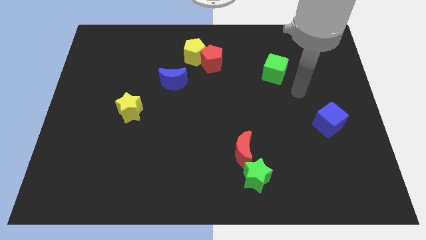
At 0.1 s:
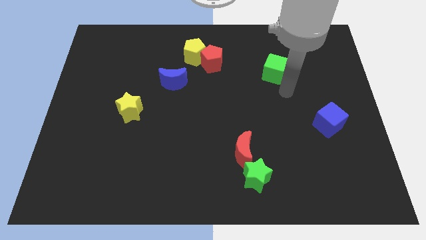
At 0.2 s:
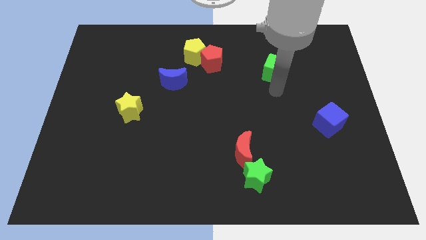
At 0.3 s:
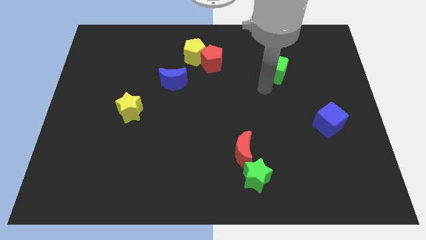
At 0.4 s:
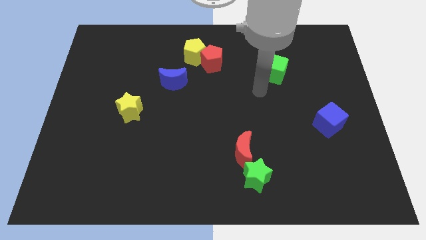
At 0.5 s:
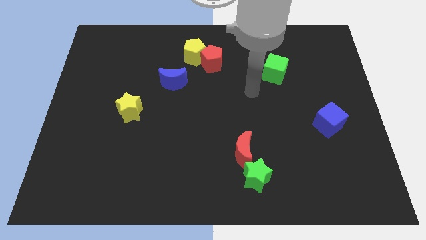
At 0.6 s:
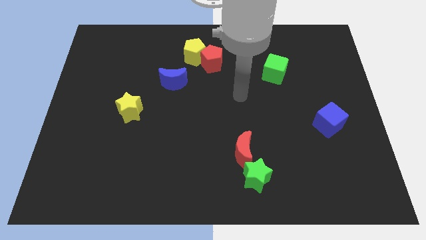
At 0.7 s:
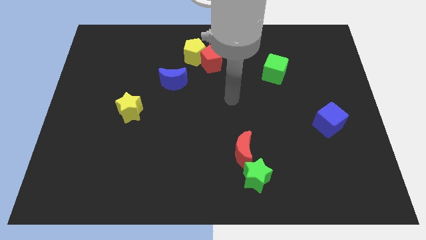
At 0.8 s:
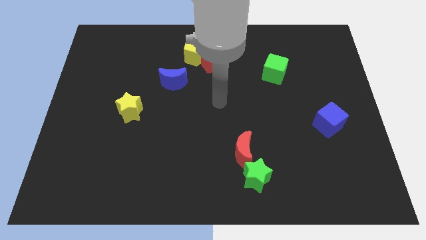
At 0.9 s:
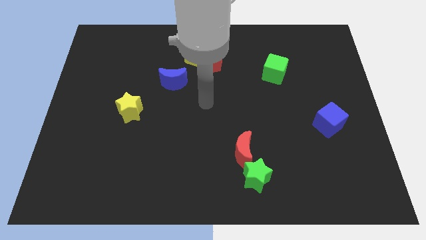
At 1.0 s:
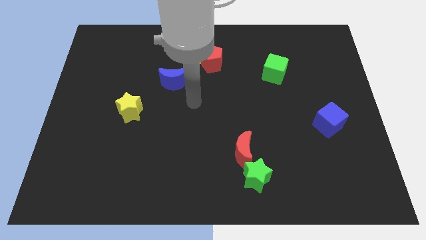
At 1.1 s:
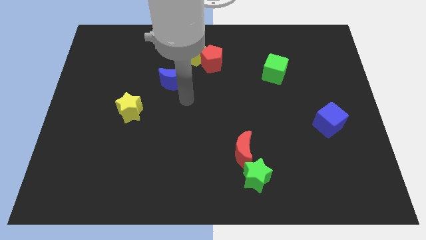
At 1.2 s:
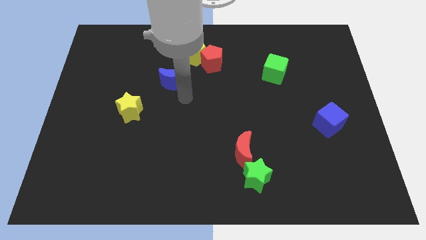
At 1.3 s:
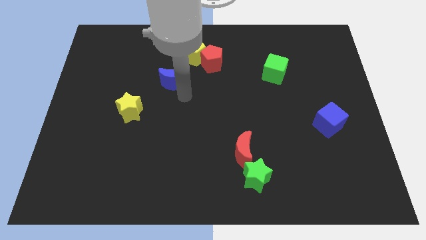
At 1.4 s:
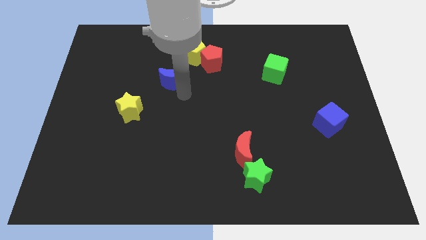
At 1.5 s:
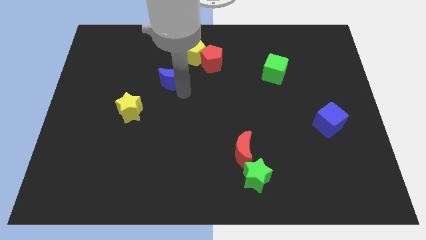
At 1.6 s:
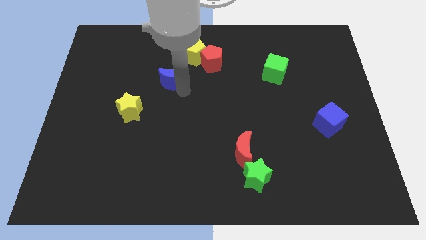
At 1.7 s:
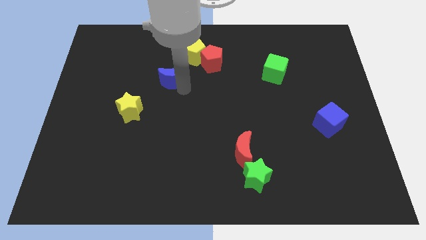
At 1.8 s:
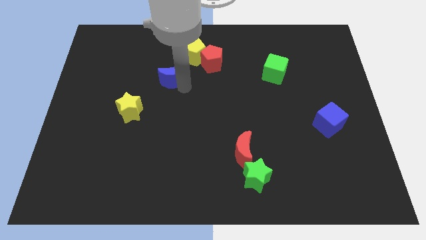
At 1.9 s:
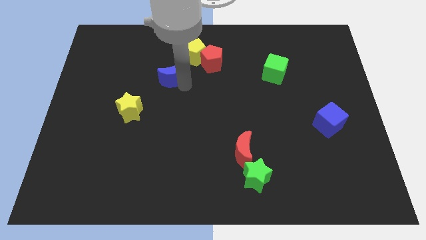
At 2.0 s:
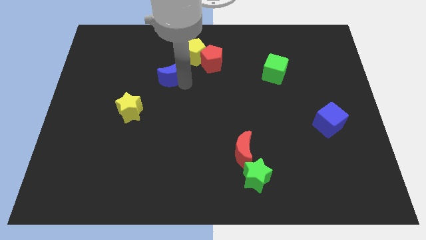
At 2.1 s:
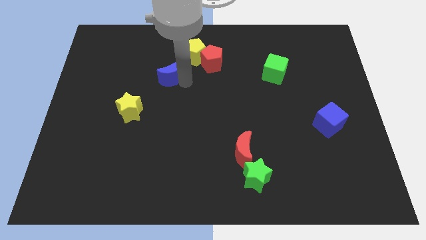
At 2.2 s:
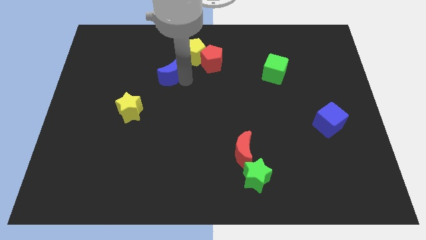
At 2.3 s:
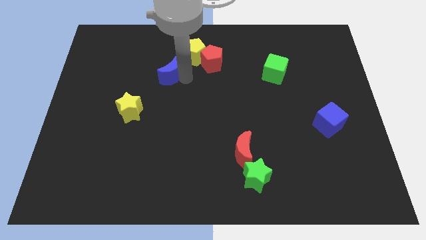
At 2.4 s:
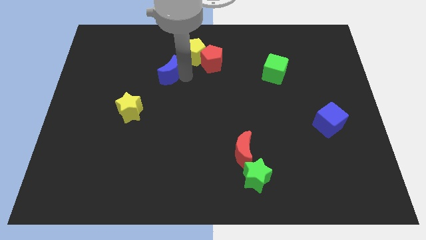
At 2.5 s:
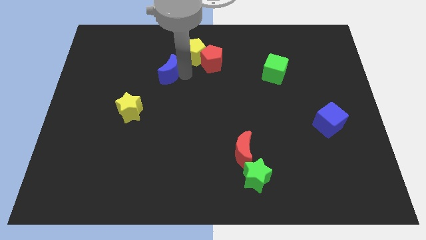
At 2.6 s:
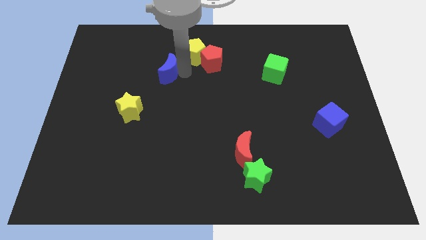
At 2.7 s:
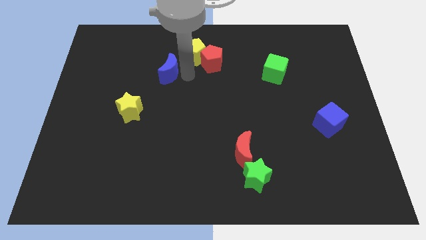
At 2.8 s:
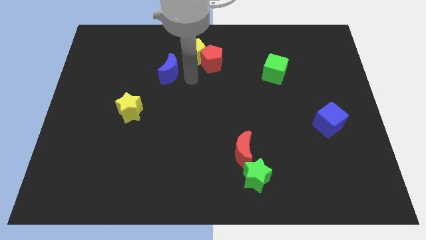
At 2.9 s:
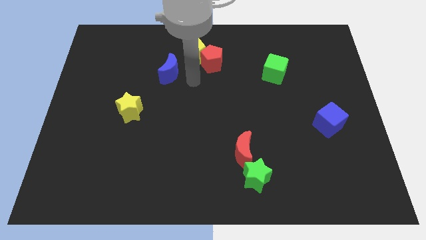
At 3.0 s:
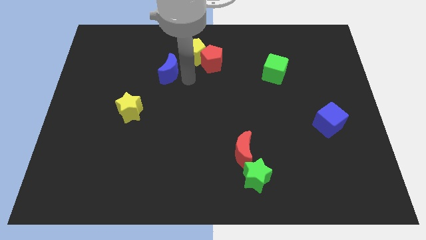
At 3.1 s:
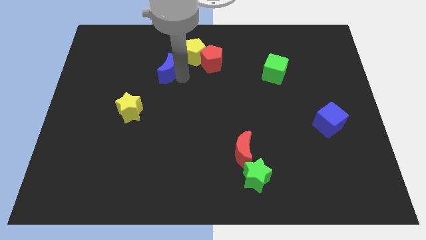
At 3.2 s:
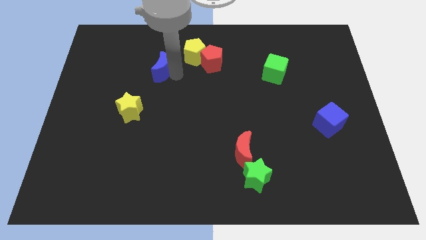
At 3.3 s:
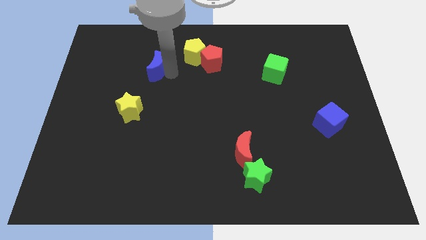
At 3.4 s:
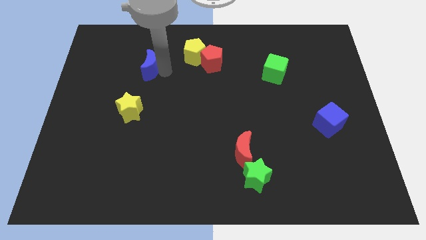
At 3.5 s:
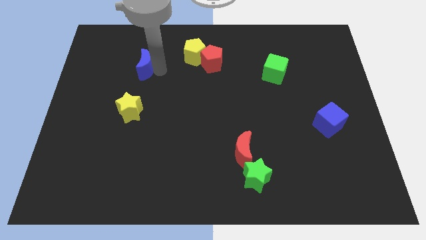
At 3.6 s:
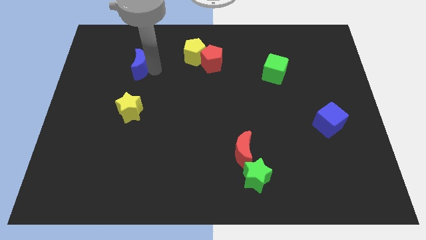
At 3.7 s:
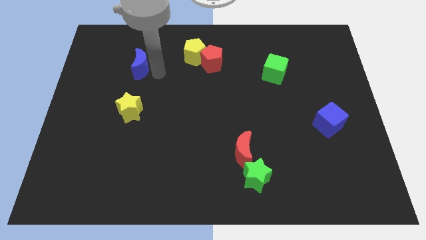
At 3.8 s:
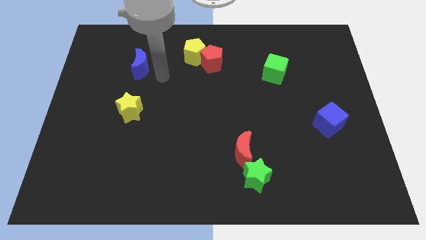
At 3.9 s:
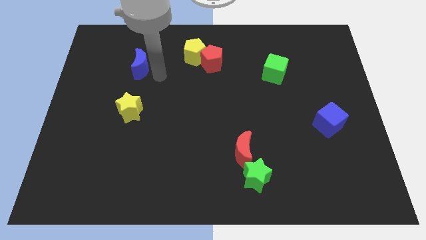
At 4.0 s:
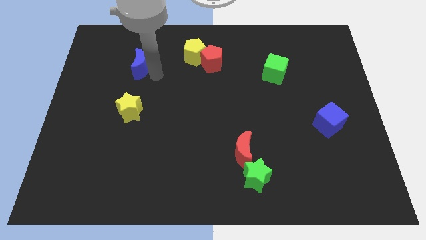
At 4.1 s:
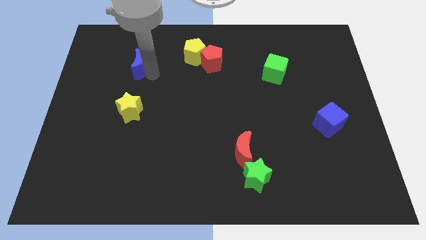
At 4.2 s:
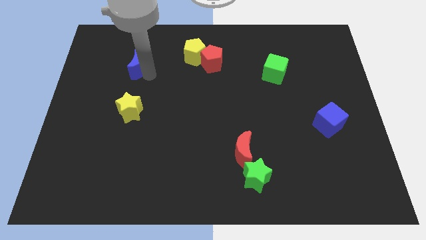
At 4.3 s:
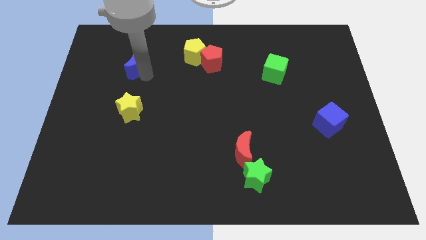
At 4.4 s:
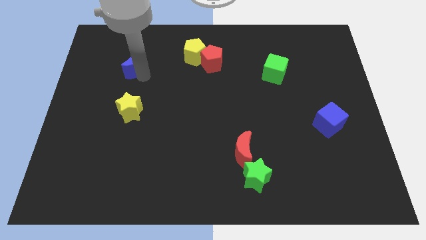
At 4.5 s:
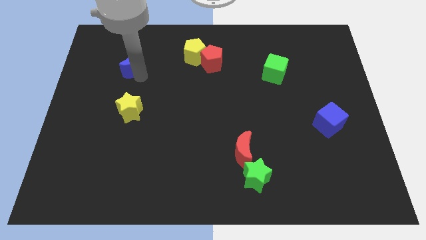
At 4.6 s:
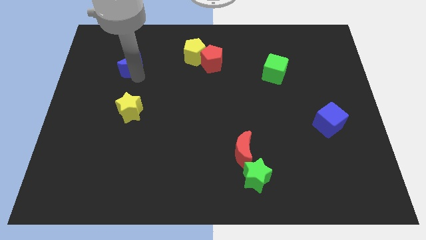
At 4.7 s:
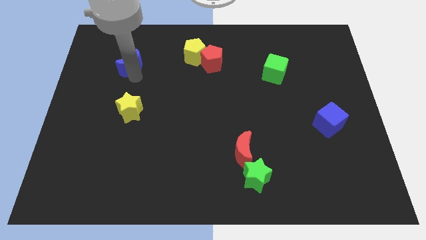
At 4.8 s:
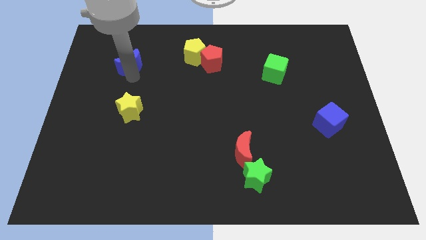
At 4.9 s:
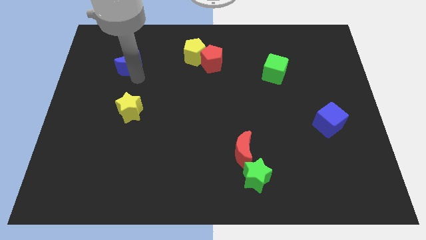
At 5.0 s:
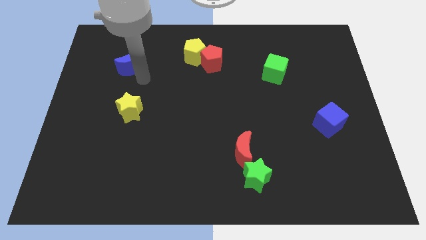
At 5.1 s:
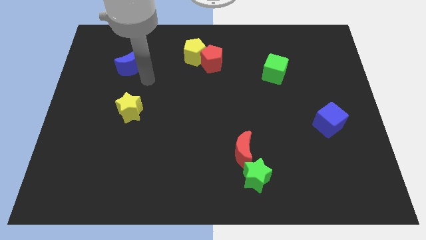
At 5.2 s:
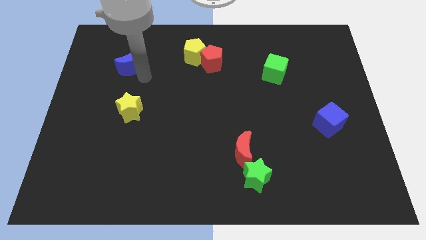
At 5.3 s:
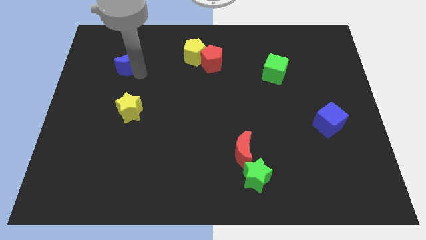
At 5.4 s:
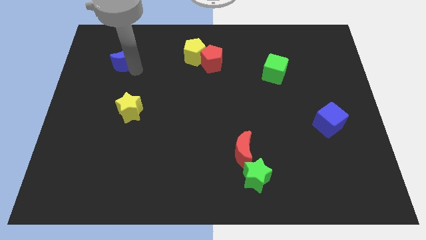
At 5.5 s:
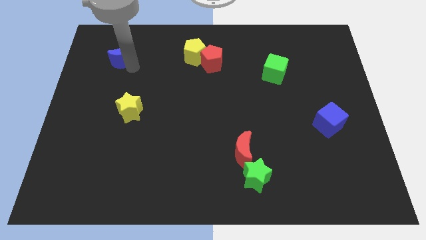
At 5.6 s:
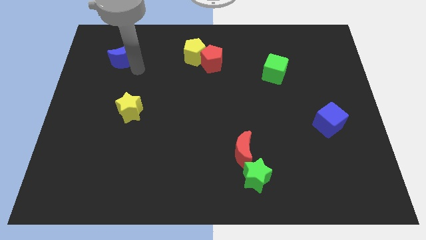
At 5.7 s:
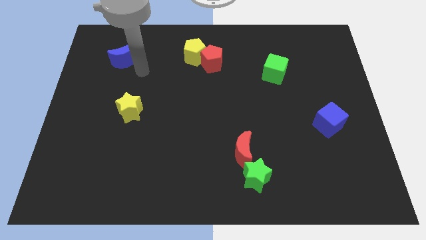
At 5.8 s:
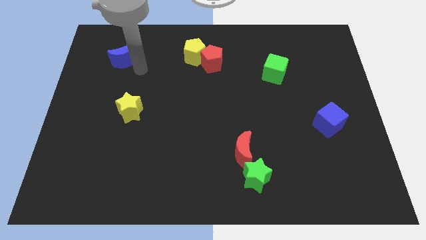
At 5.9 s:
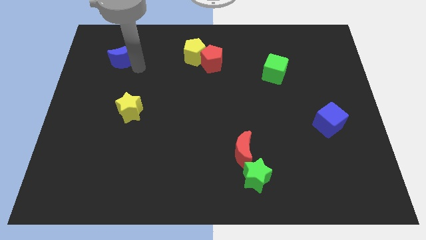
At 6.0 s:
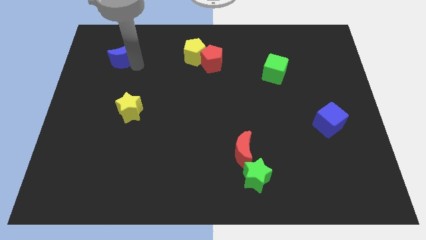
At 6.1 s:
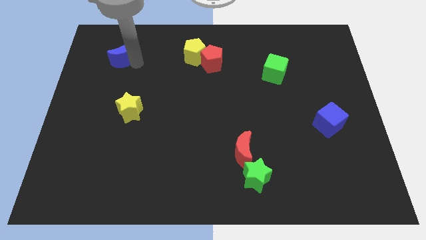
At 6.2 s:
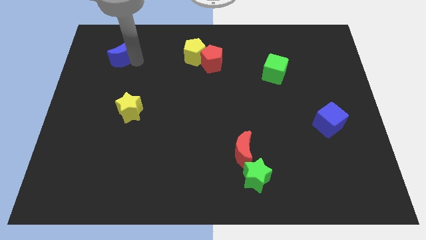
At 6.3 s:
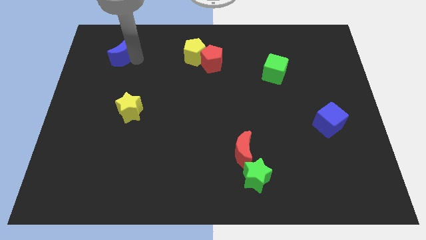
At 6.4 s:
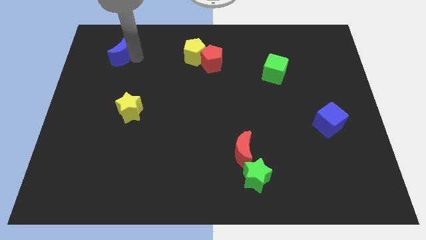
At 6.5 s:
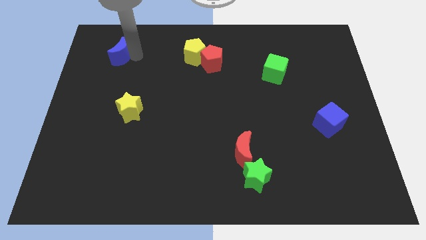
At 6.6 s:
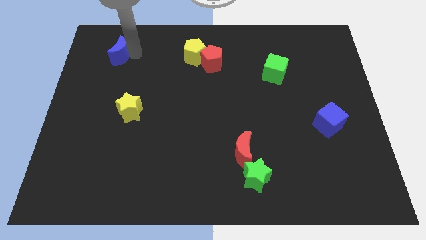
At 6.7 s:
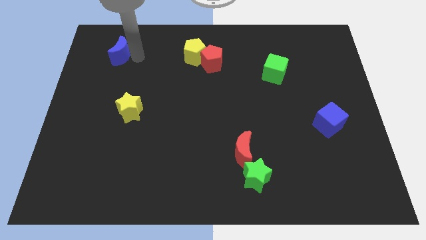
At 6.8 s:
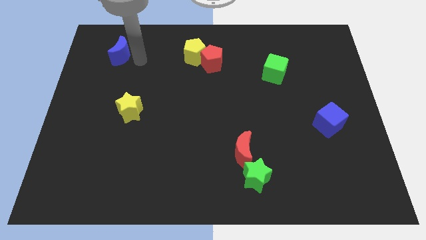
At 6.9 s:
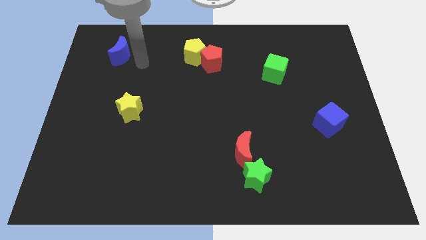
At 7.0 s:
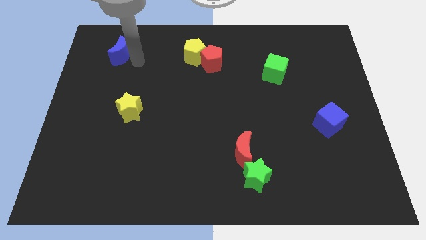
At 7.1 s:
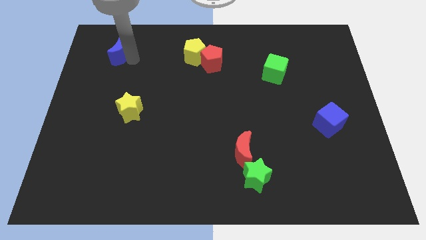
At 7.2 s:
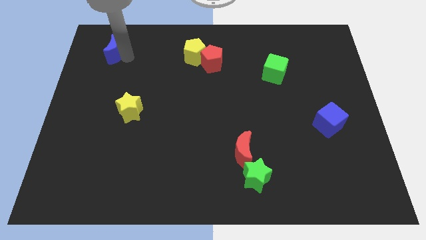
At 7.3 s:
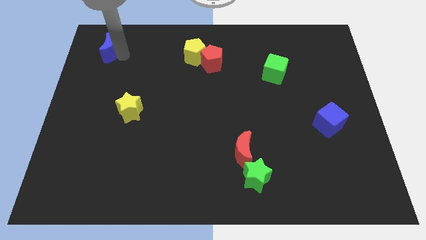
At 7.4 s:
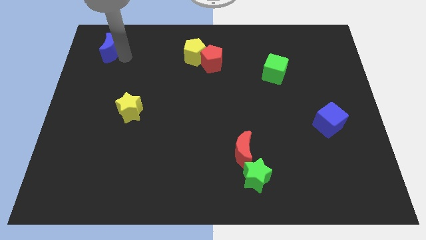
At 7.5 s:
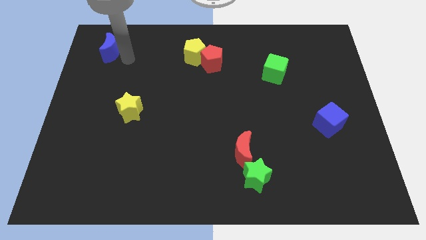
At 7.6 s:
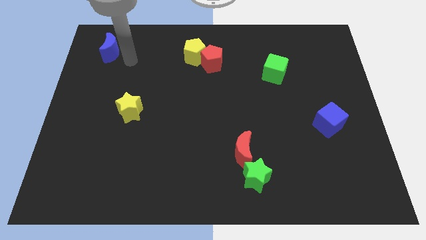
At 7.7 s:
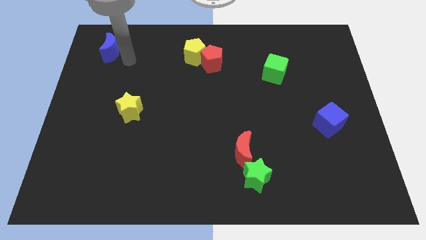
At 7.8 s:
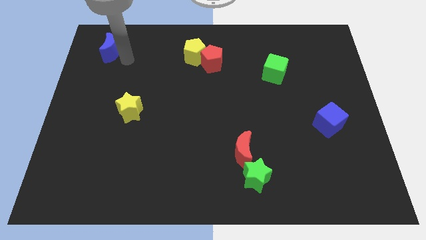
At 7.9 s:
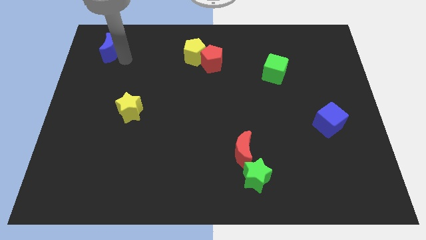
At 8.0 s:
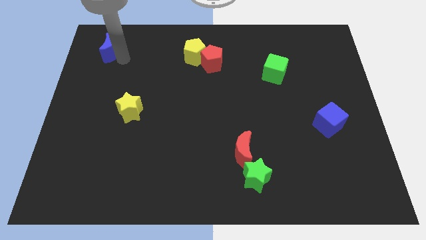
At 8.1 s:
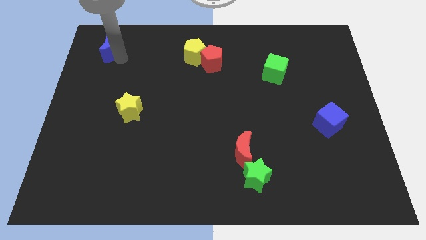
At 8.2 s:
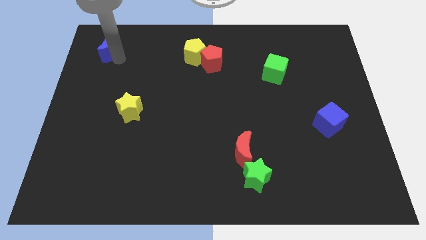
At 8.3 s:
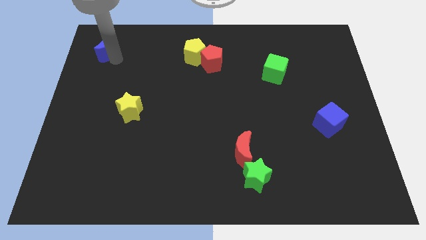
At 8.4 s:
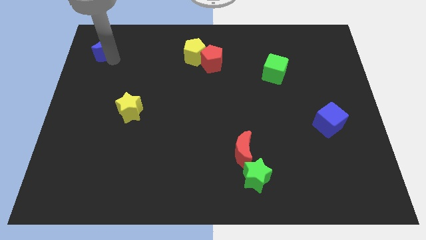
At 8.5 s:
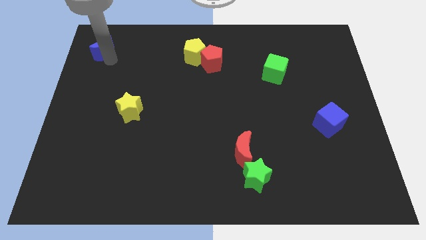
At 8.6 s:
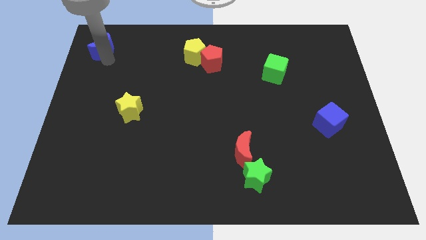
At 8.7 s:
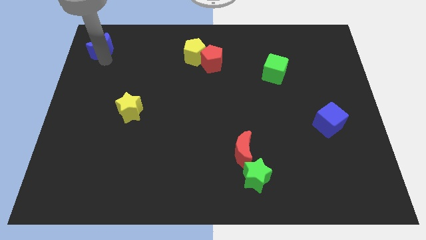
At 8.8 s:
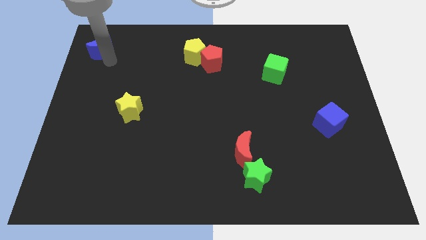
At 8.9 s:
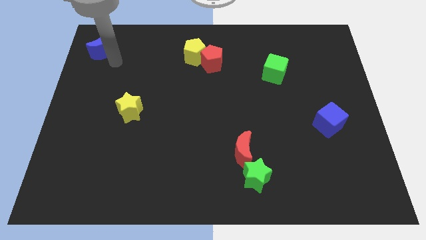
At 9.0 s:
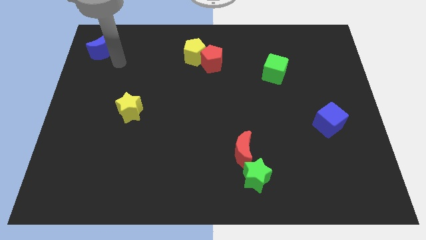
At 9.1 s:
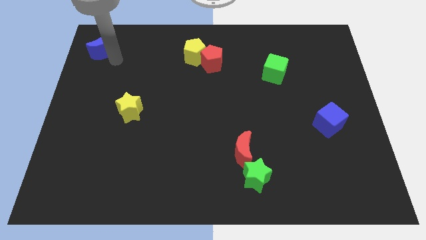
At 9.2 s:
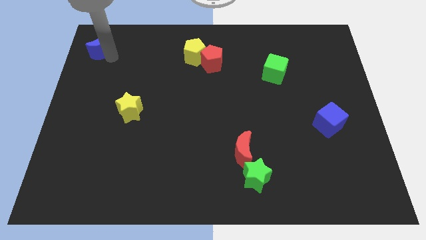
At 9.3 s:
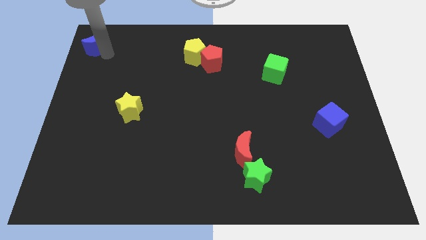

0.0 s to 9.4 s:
slide the blue moon to the top left
